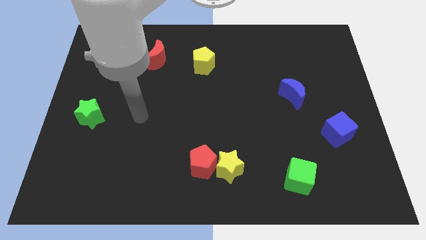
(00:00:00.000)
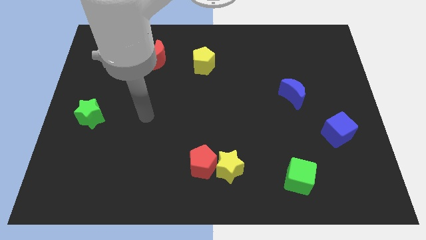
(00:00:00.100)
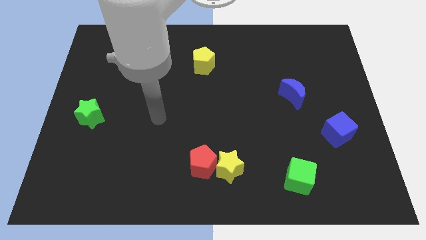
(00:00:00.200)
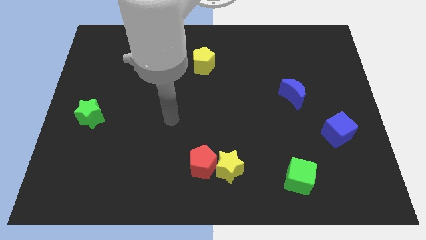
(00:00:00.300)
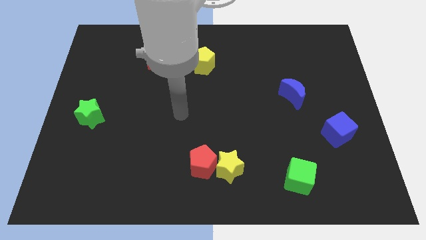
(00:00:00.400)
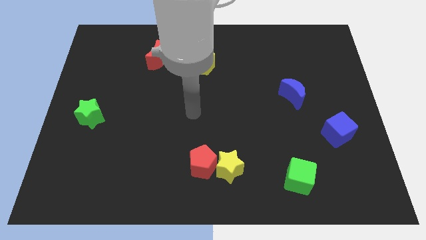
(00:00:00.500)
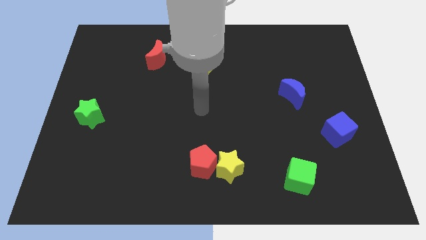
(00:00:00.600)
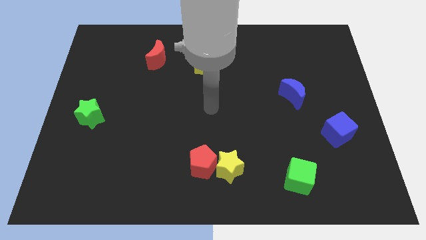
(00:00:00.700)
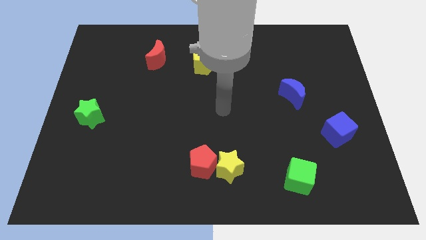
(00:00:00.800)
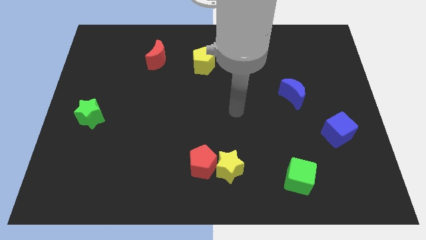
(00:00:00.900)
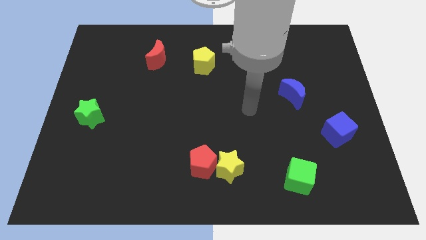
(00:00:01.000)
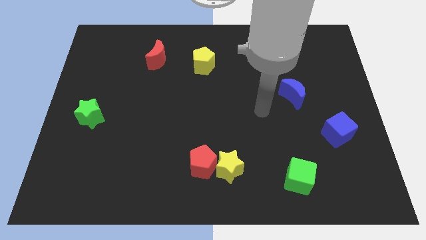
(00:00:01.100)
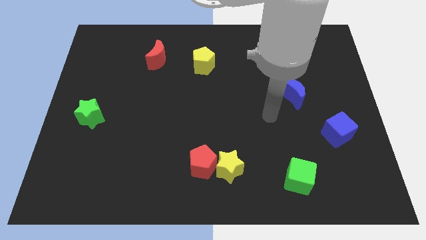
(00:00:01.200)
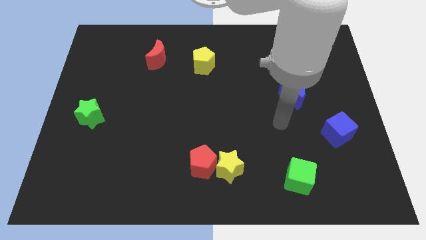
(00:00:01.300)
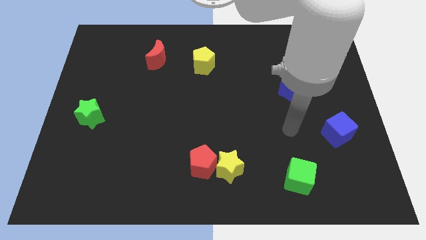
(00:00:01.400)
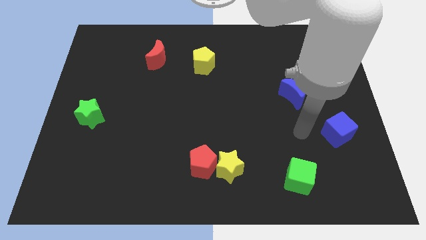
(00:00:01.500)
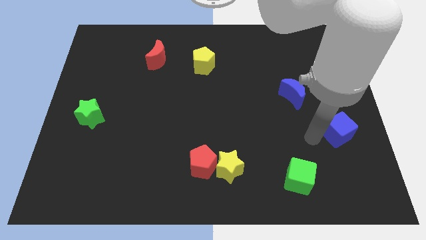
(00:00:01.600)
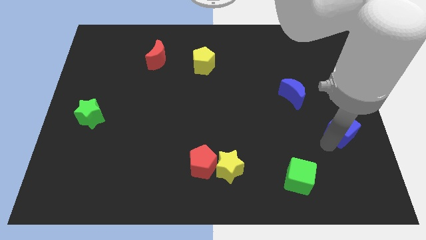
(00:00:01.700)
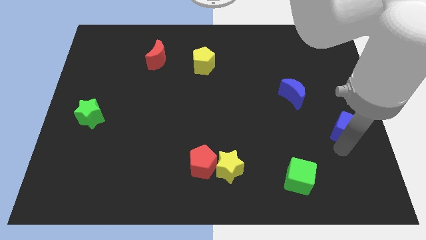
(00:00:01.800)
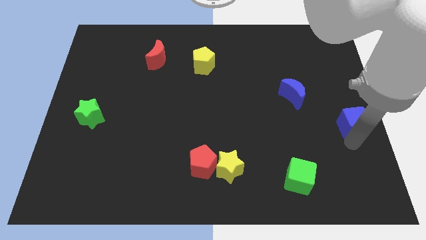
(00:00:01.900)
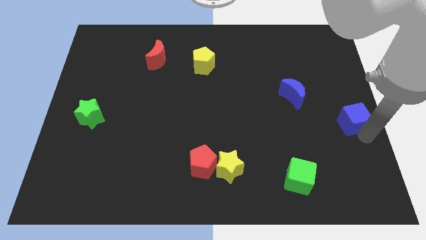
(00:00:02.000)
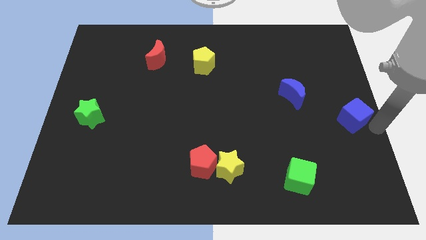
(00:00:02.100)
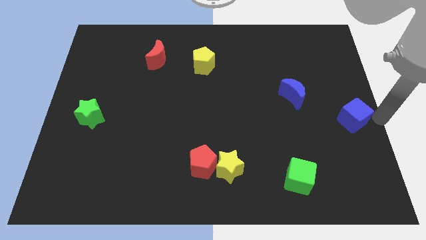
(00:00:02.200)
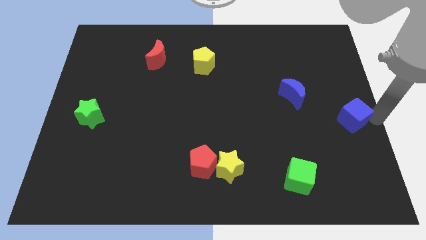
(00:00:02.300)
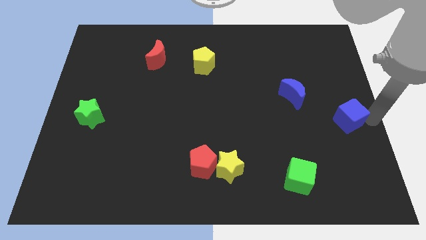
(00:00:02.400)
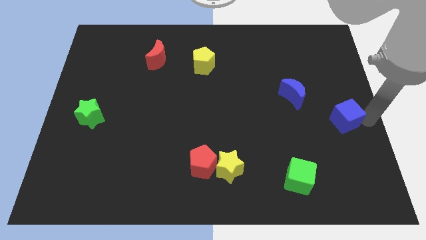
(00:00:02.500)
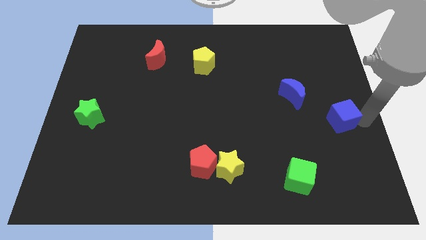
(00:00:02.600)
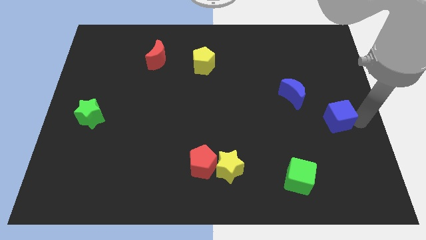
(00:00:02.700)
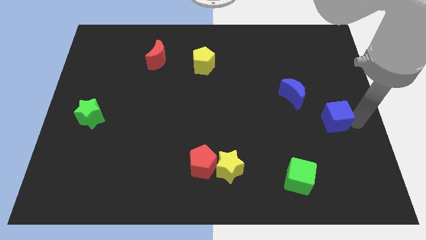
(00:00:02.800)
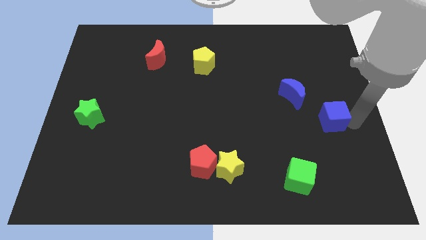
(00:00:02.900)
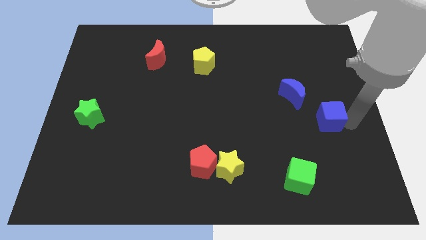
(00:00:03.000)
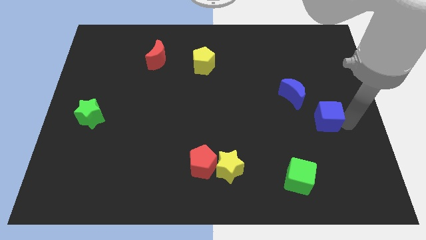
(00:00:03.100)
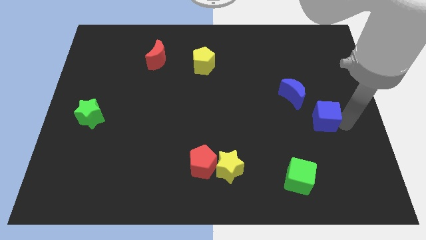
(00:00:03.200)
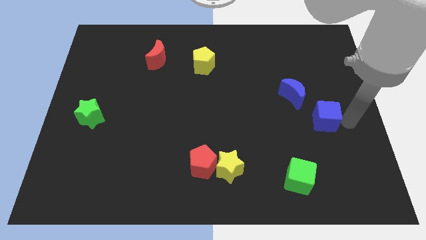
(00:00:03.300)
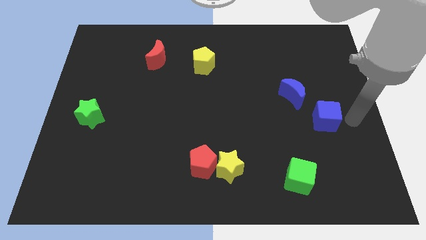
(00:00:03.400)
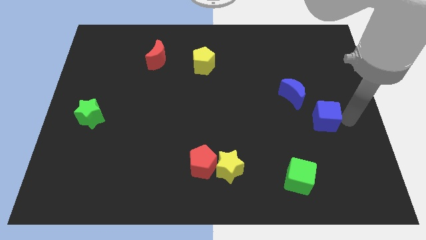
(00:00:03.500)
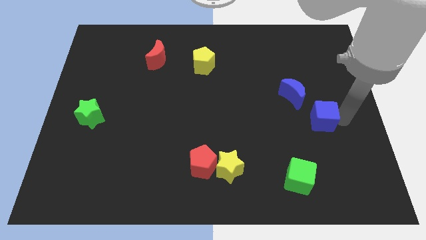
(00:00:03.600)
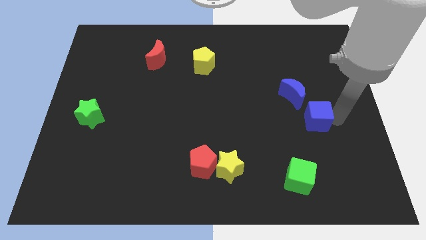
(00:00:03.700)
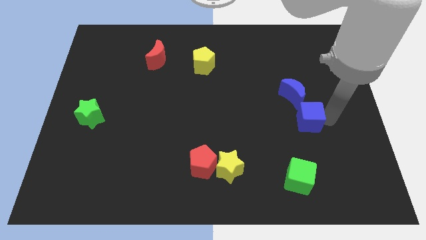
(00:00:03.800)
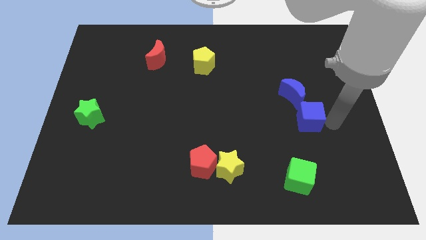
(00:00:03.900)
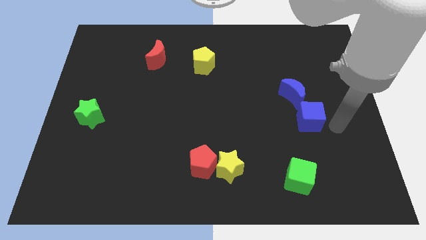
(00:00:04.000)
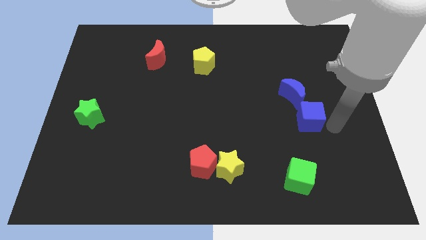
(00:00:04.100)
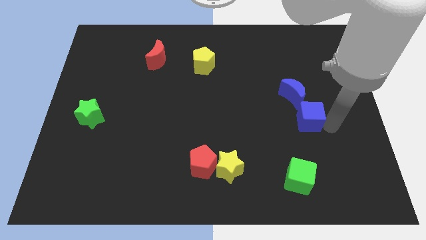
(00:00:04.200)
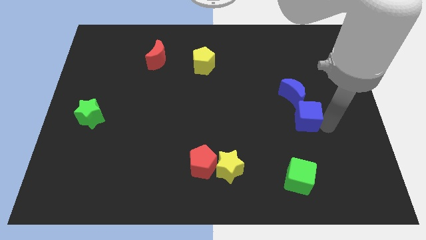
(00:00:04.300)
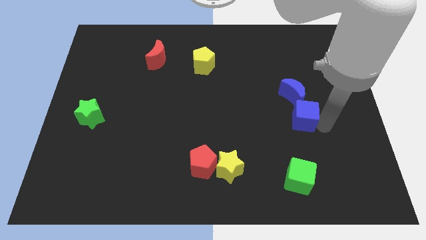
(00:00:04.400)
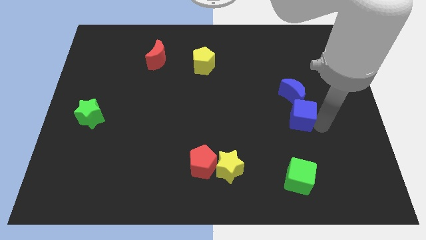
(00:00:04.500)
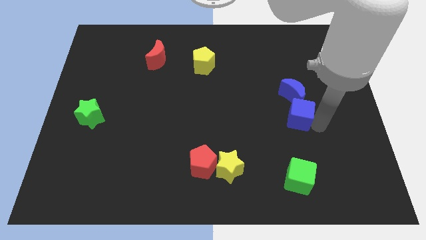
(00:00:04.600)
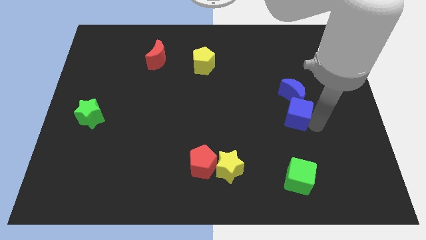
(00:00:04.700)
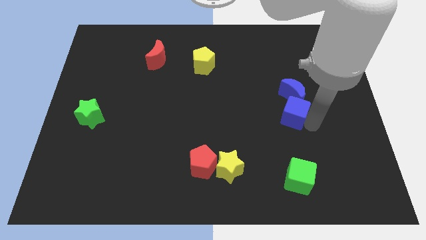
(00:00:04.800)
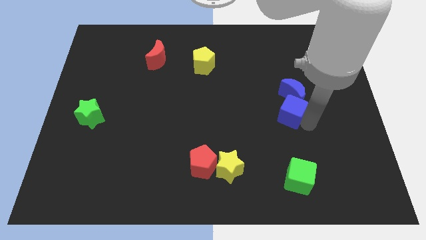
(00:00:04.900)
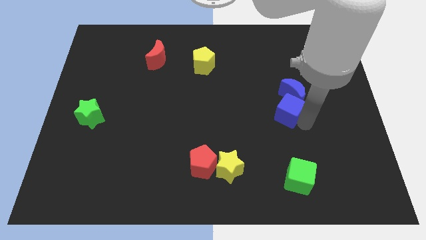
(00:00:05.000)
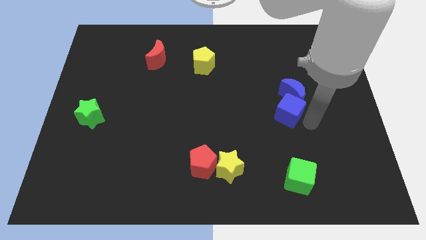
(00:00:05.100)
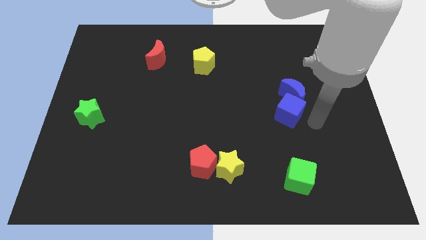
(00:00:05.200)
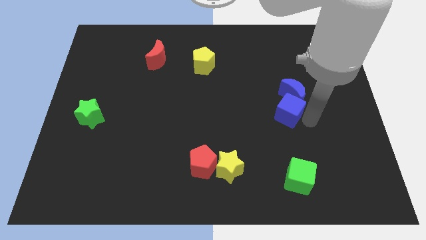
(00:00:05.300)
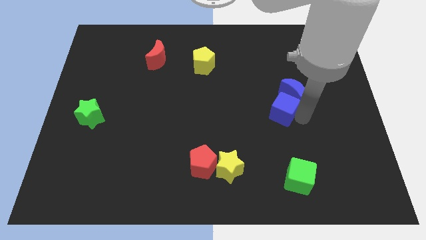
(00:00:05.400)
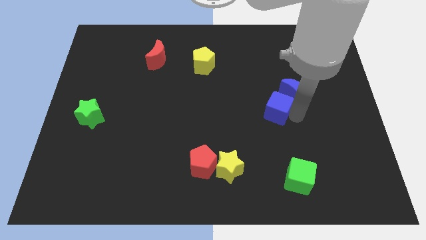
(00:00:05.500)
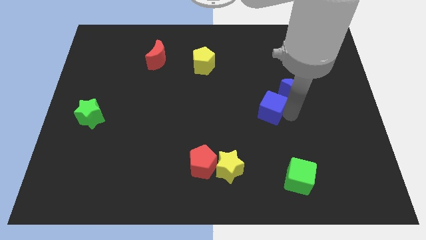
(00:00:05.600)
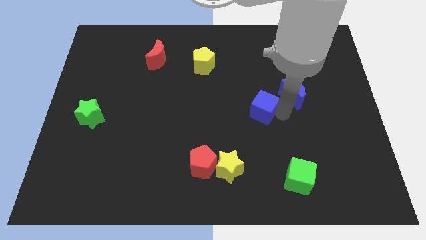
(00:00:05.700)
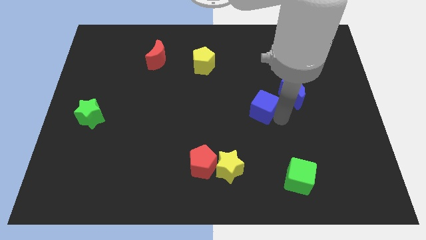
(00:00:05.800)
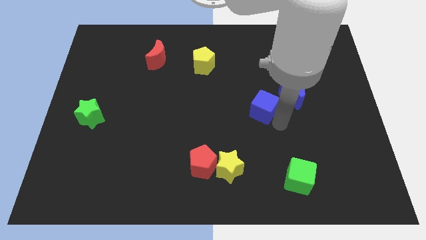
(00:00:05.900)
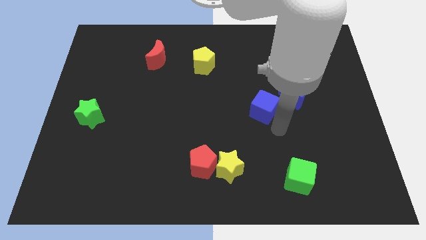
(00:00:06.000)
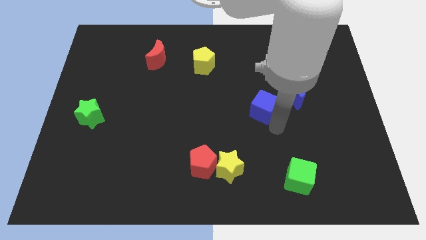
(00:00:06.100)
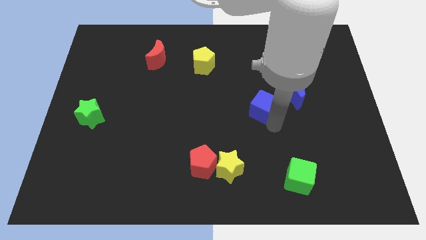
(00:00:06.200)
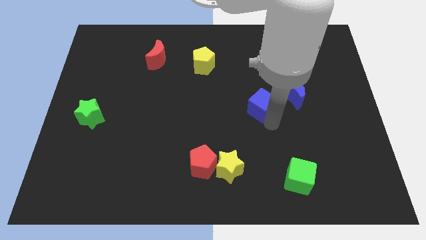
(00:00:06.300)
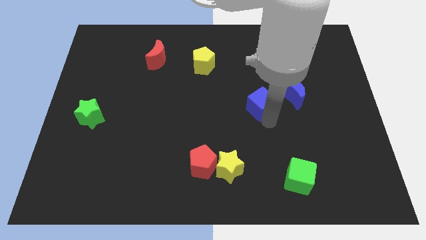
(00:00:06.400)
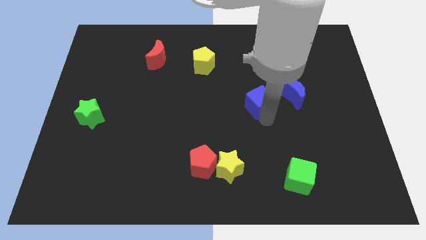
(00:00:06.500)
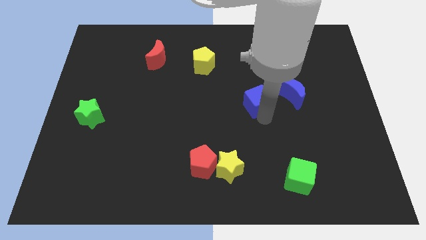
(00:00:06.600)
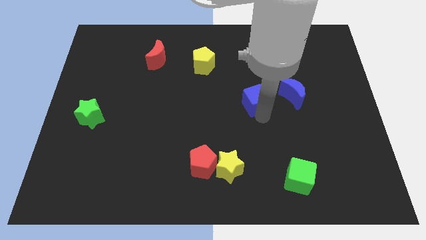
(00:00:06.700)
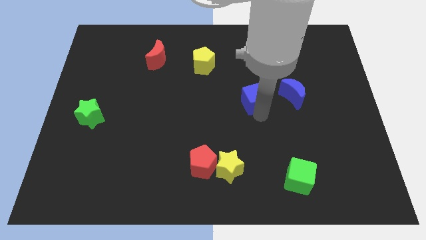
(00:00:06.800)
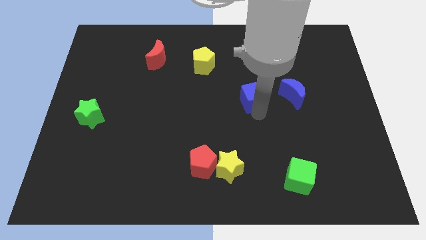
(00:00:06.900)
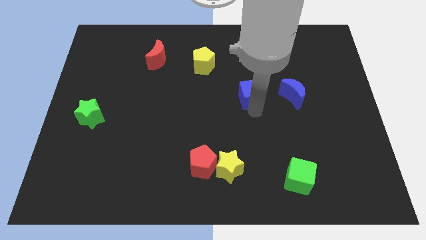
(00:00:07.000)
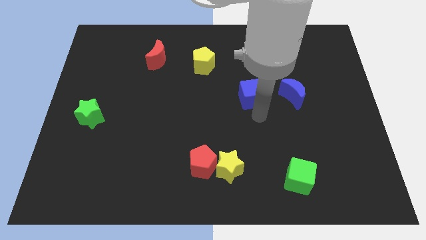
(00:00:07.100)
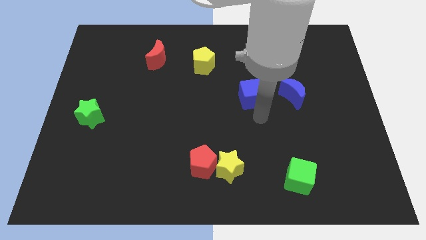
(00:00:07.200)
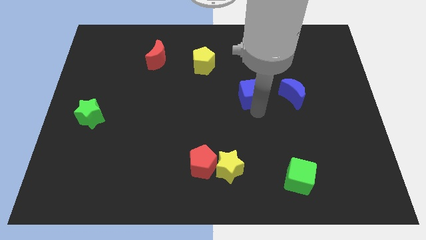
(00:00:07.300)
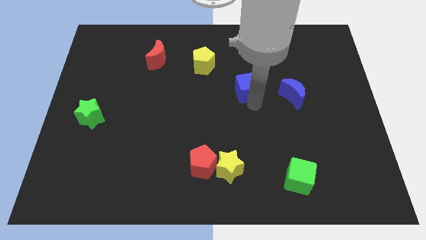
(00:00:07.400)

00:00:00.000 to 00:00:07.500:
push the blue cube upwards and then left
